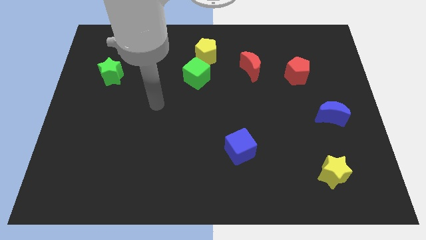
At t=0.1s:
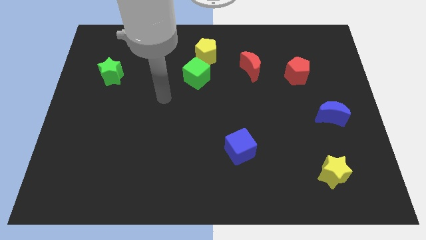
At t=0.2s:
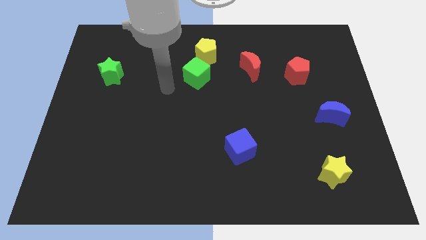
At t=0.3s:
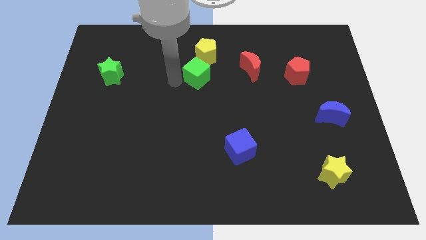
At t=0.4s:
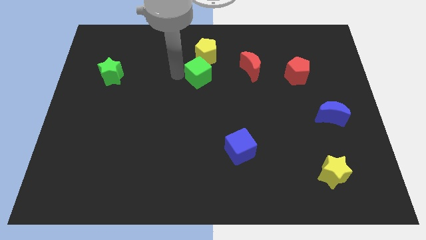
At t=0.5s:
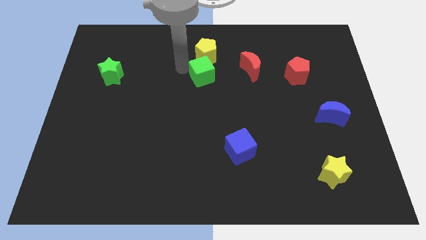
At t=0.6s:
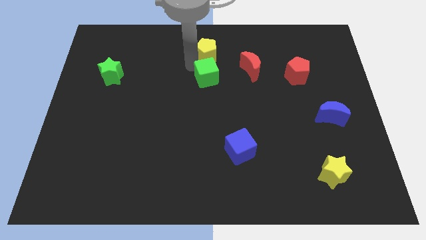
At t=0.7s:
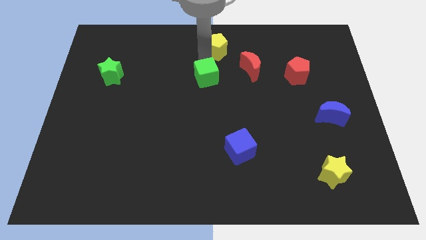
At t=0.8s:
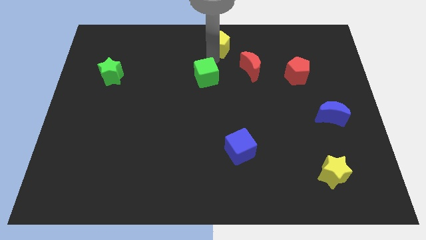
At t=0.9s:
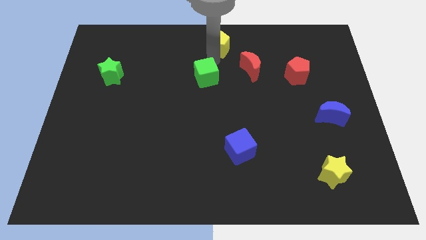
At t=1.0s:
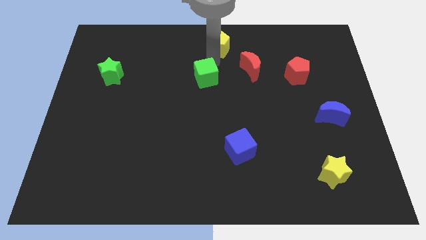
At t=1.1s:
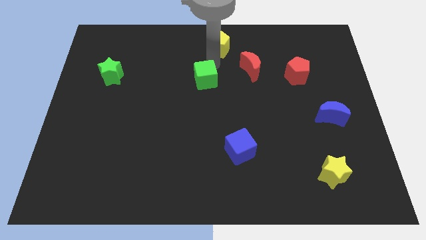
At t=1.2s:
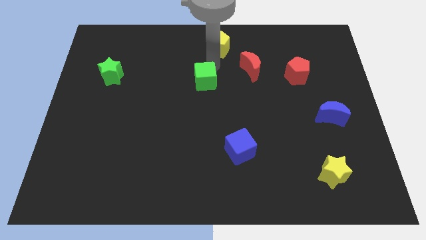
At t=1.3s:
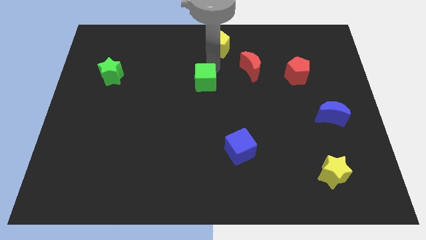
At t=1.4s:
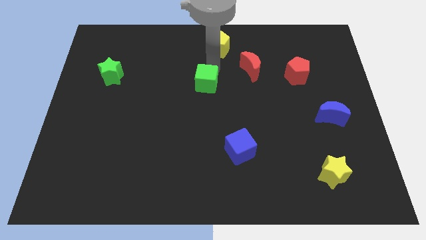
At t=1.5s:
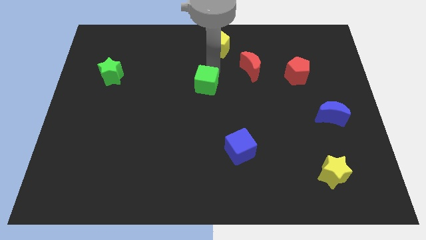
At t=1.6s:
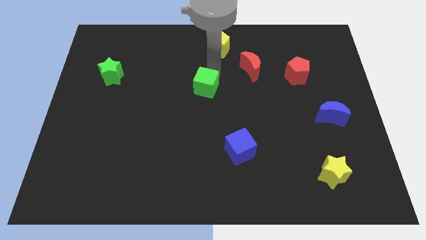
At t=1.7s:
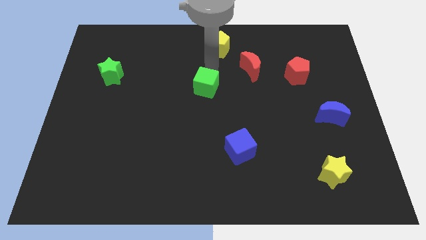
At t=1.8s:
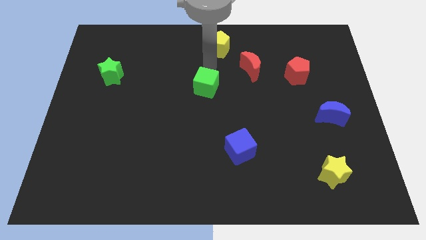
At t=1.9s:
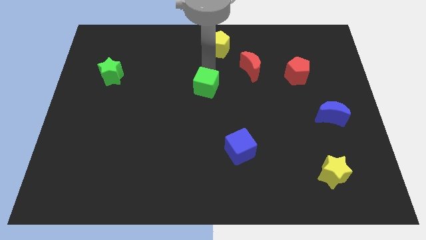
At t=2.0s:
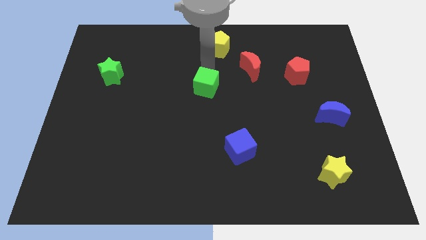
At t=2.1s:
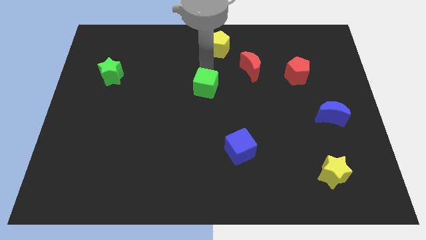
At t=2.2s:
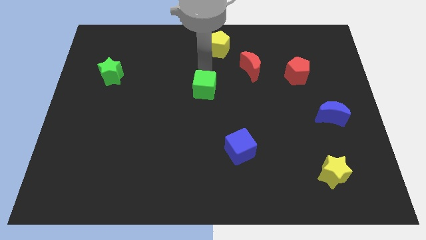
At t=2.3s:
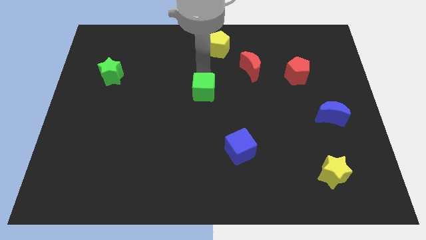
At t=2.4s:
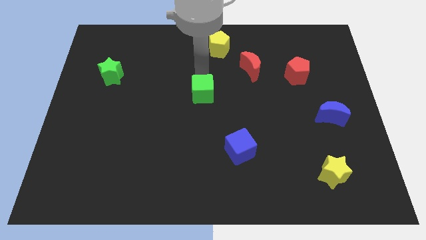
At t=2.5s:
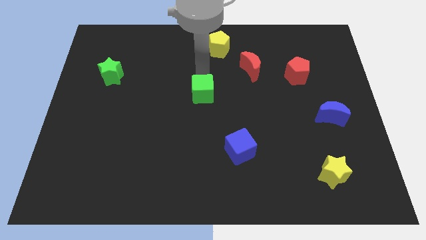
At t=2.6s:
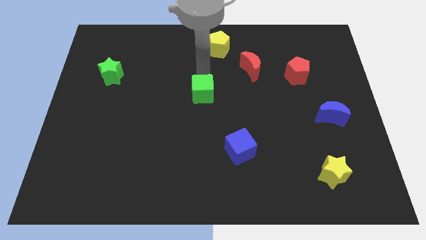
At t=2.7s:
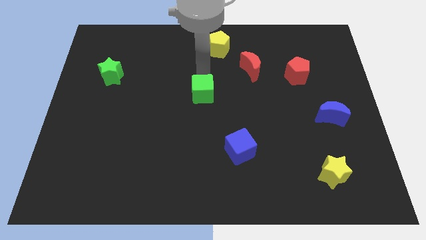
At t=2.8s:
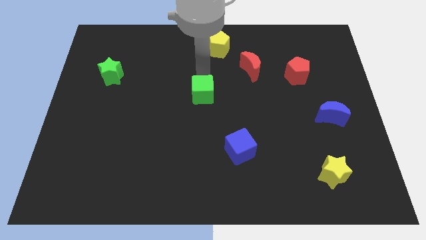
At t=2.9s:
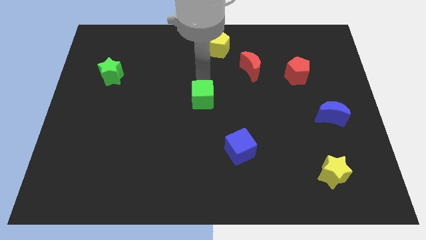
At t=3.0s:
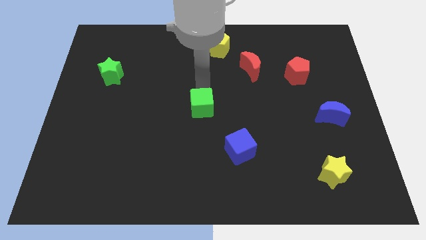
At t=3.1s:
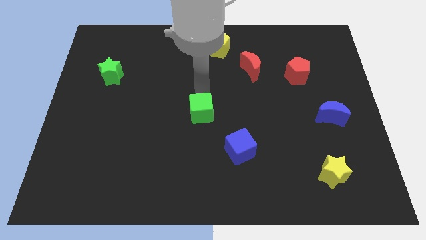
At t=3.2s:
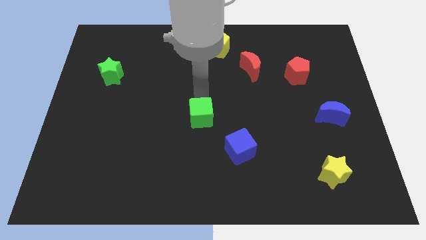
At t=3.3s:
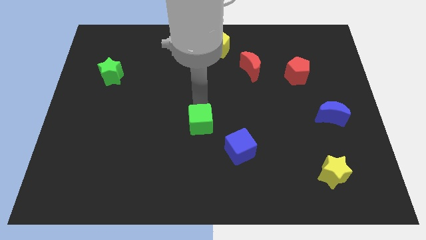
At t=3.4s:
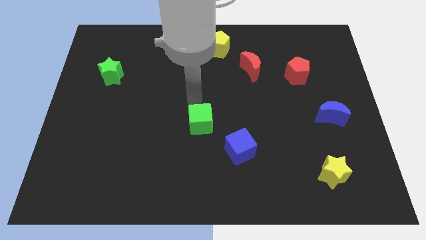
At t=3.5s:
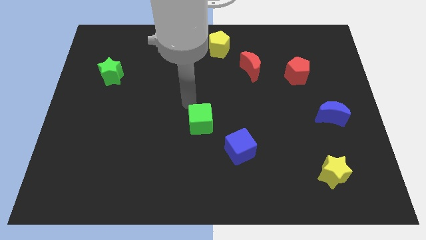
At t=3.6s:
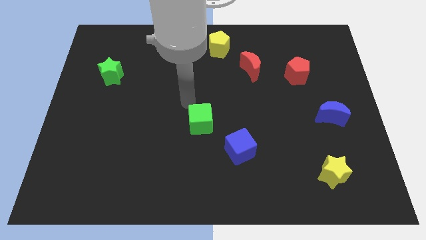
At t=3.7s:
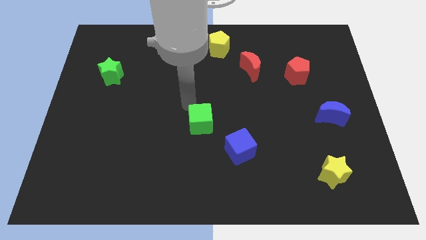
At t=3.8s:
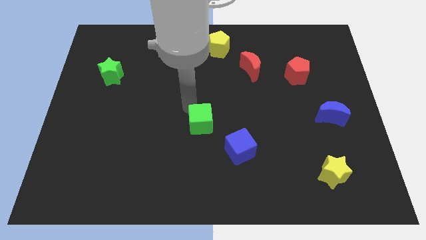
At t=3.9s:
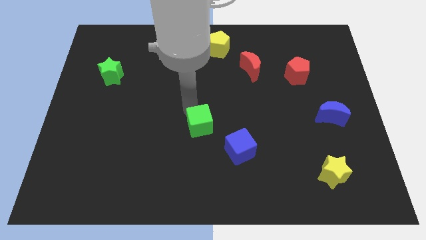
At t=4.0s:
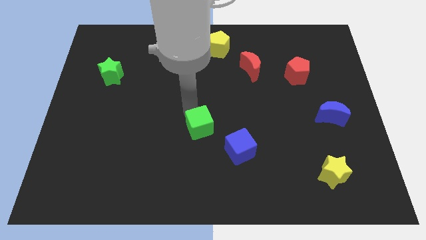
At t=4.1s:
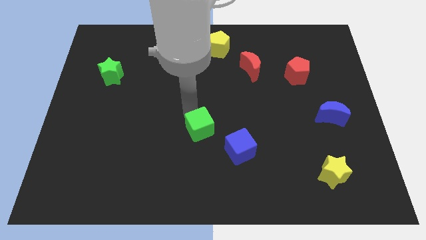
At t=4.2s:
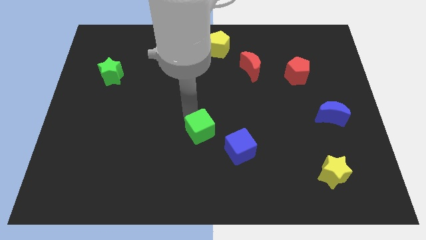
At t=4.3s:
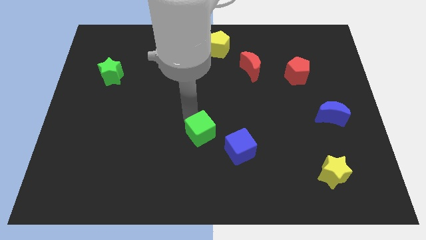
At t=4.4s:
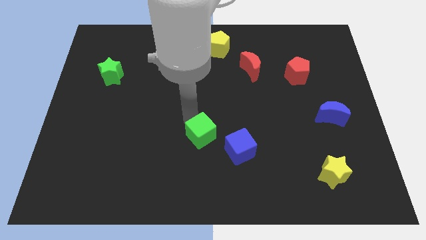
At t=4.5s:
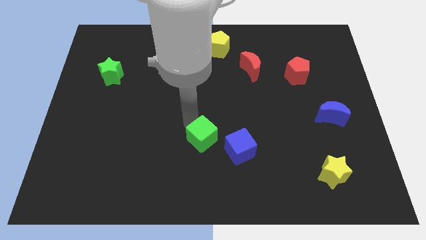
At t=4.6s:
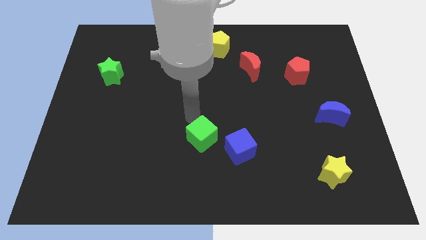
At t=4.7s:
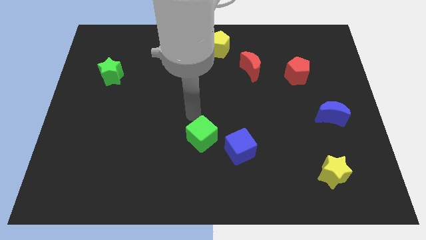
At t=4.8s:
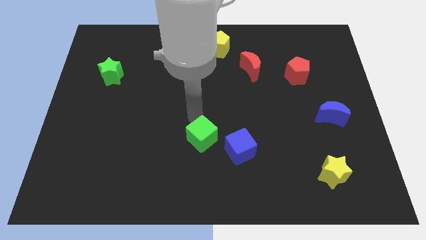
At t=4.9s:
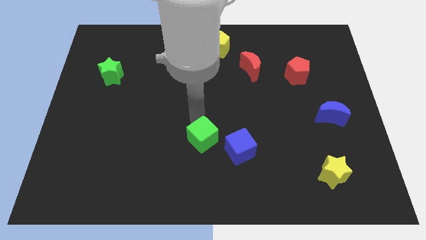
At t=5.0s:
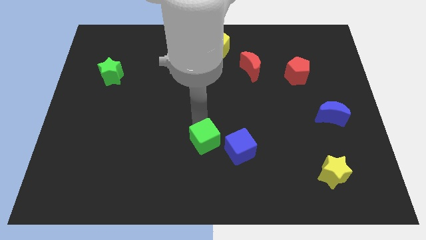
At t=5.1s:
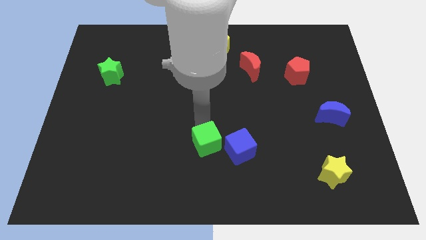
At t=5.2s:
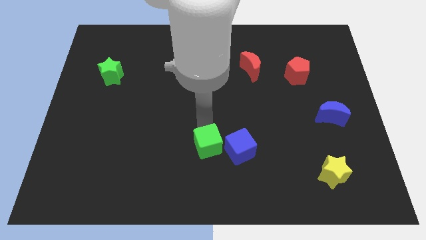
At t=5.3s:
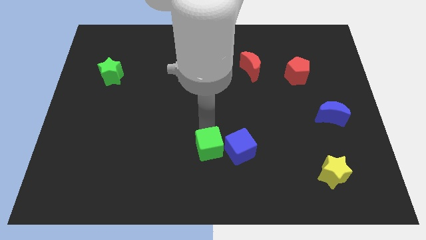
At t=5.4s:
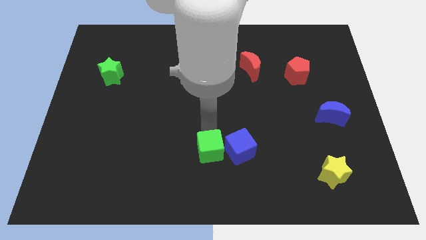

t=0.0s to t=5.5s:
slide the green cube diagonally down and to the left of the blue cube

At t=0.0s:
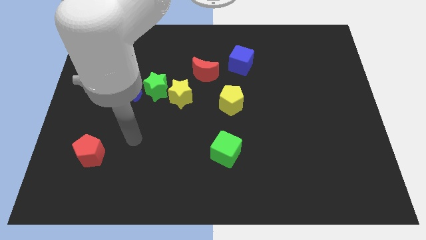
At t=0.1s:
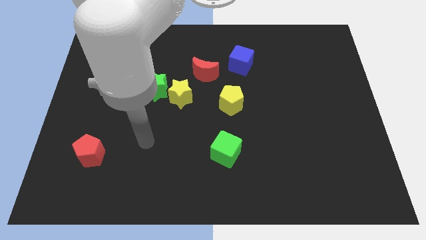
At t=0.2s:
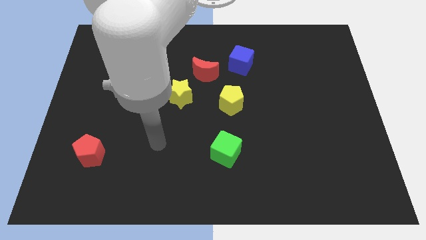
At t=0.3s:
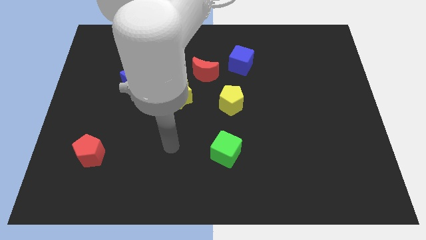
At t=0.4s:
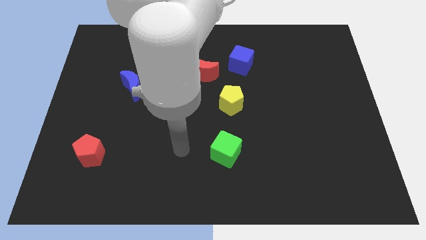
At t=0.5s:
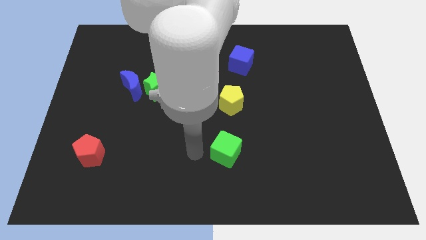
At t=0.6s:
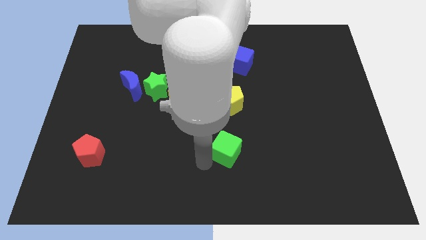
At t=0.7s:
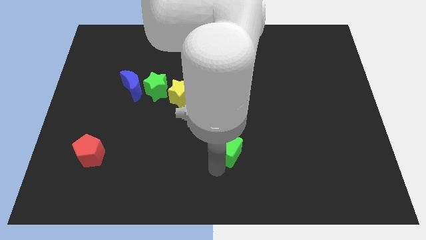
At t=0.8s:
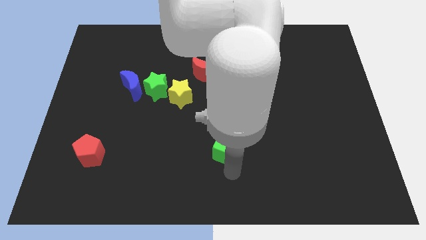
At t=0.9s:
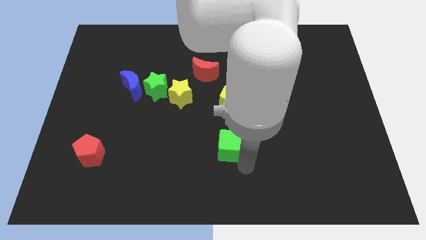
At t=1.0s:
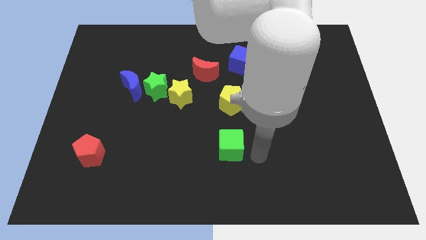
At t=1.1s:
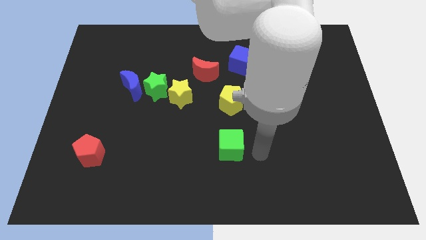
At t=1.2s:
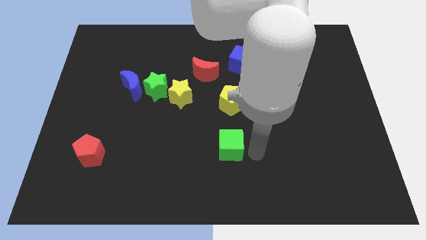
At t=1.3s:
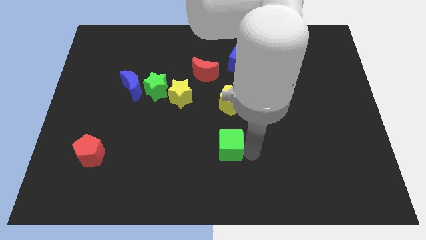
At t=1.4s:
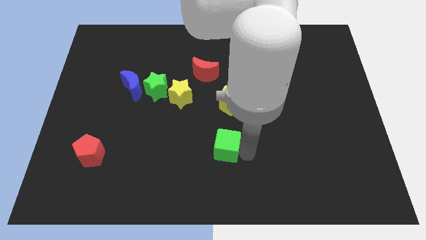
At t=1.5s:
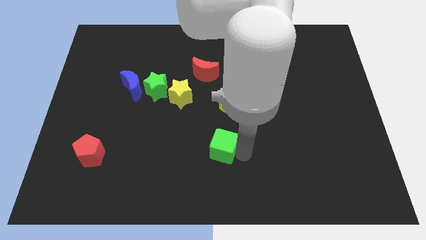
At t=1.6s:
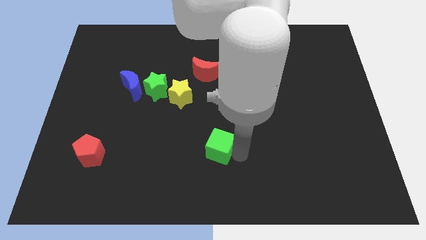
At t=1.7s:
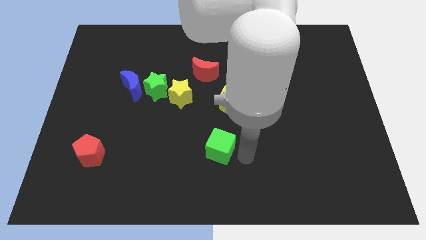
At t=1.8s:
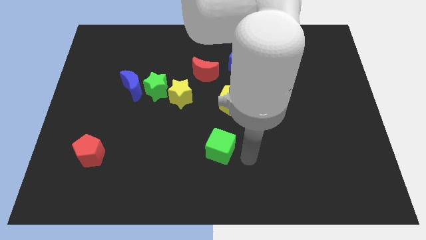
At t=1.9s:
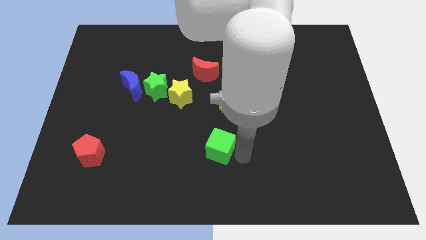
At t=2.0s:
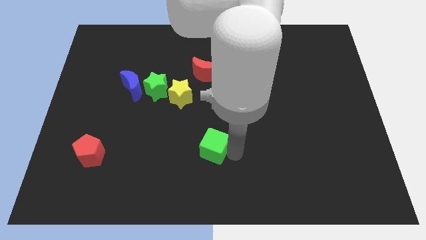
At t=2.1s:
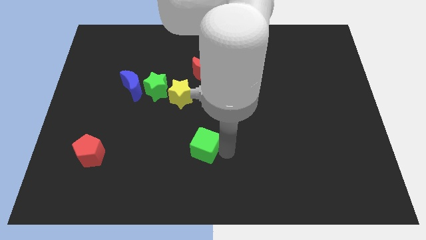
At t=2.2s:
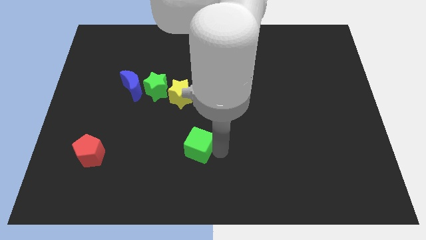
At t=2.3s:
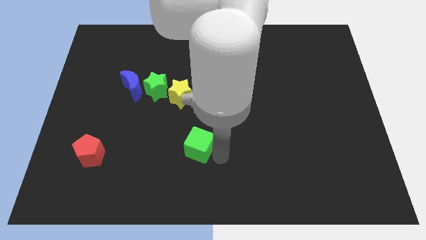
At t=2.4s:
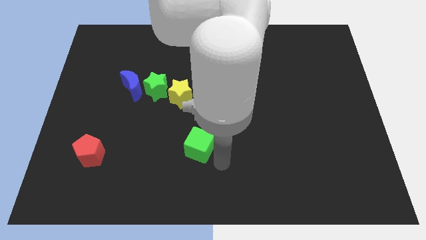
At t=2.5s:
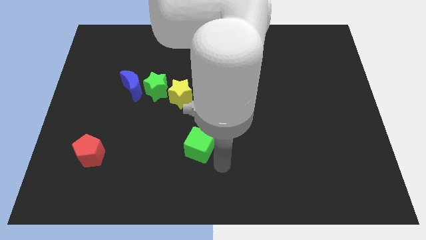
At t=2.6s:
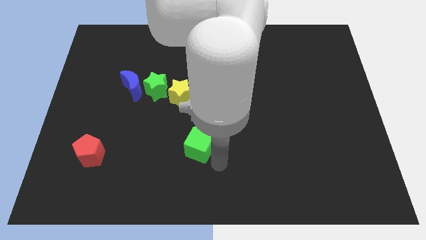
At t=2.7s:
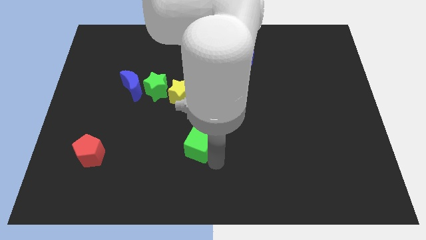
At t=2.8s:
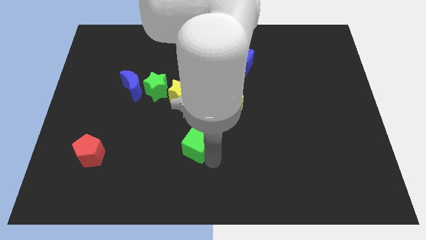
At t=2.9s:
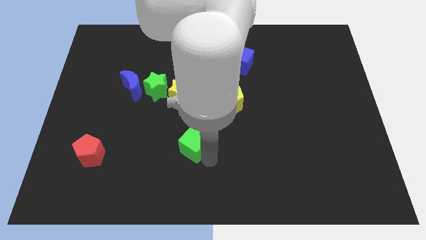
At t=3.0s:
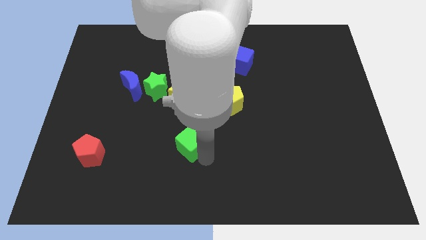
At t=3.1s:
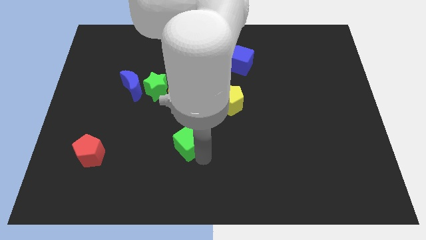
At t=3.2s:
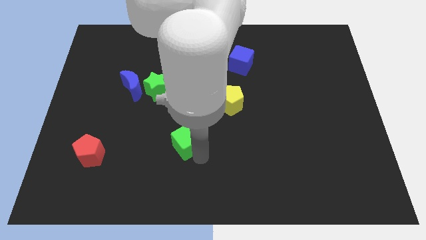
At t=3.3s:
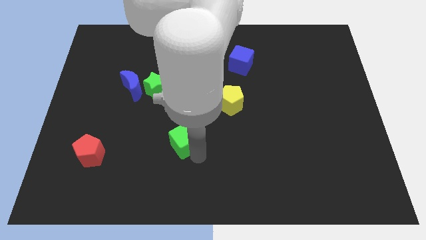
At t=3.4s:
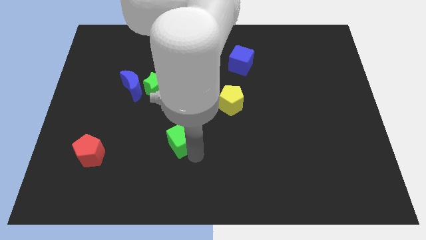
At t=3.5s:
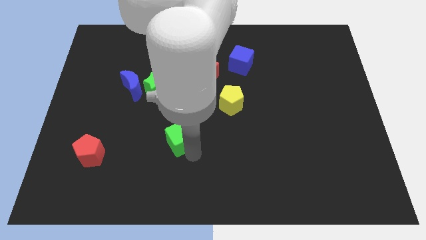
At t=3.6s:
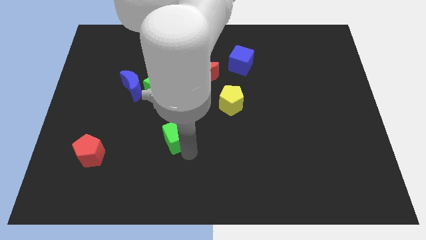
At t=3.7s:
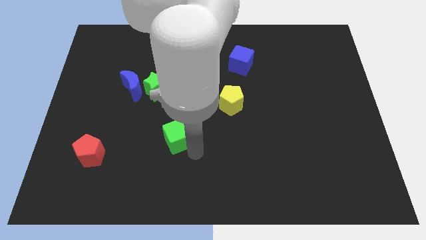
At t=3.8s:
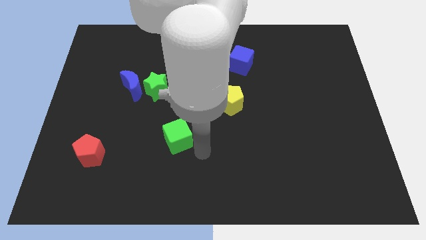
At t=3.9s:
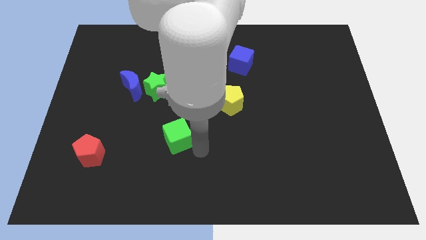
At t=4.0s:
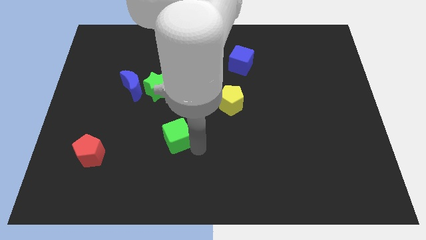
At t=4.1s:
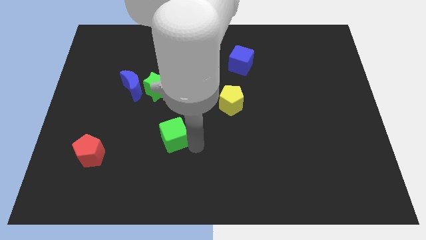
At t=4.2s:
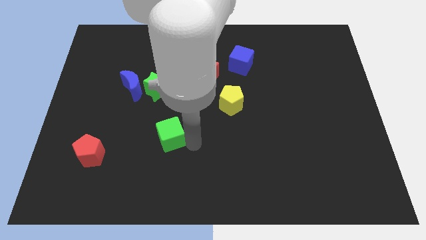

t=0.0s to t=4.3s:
put the green cube to the bottom of the green star
